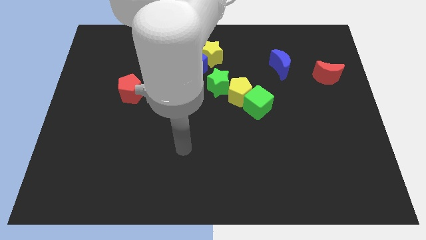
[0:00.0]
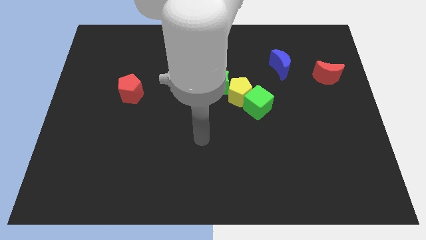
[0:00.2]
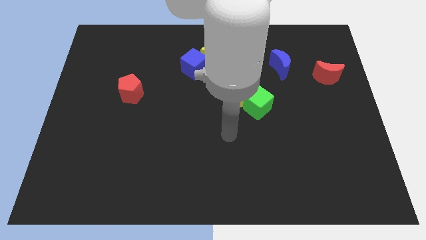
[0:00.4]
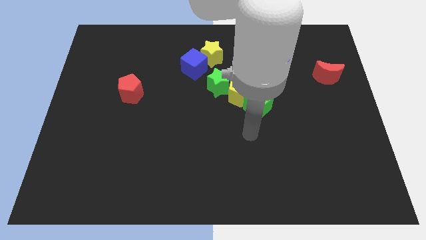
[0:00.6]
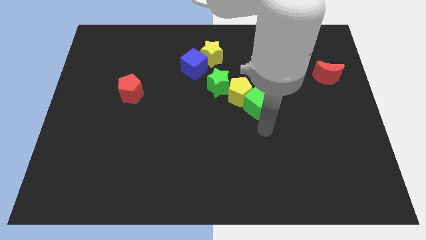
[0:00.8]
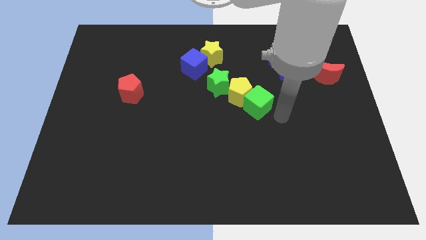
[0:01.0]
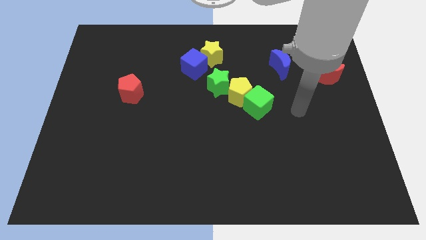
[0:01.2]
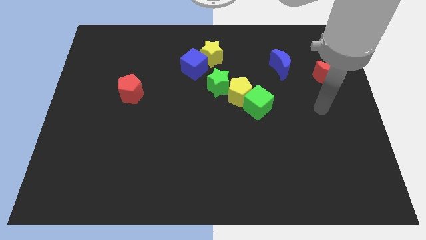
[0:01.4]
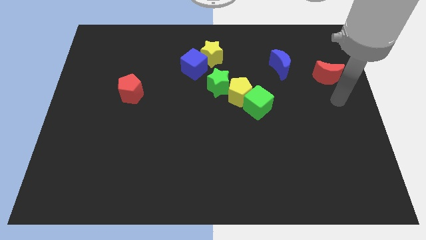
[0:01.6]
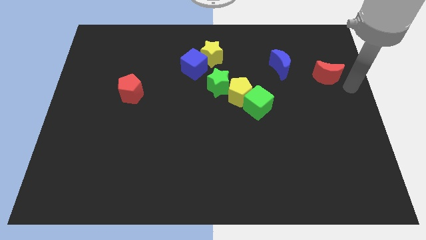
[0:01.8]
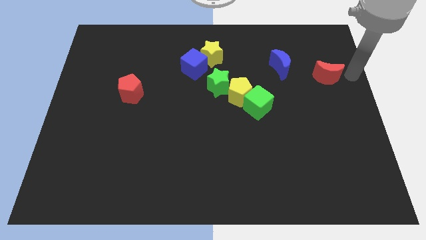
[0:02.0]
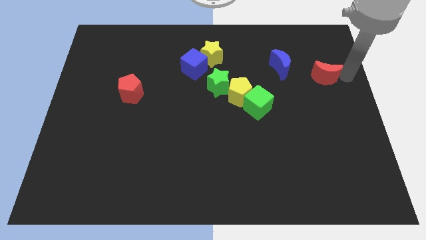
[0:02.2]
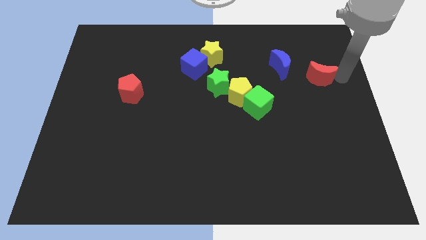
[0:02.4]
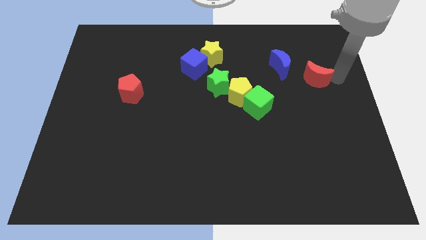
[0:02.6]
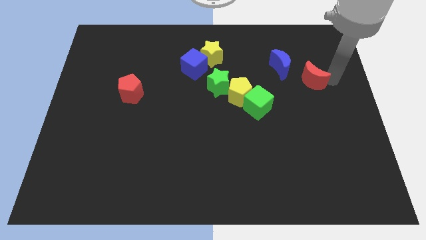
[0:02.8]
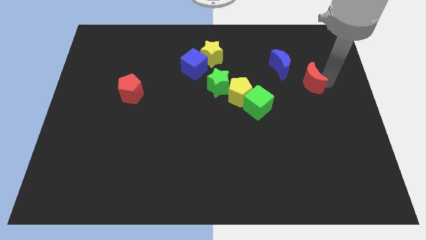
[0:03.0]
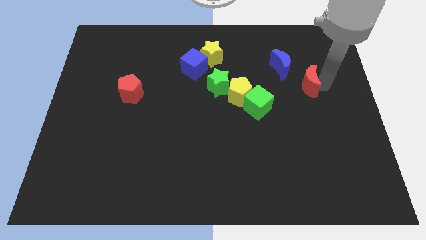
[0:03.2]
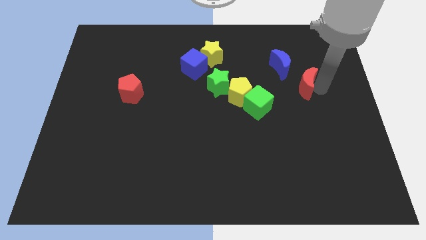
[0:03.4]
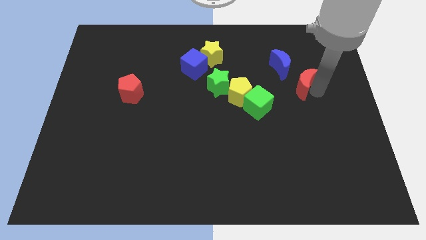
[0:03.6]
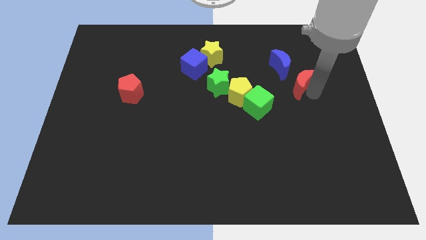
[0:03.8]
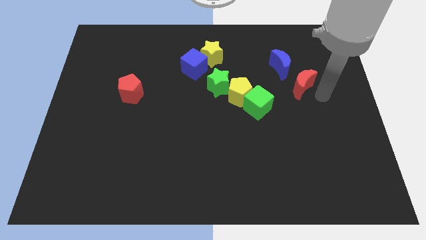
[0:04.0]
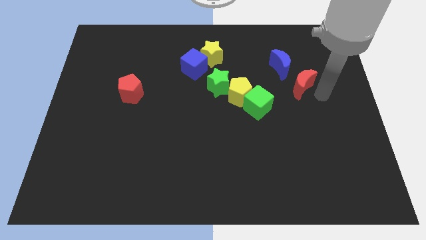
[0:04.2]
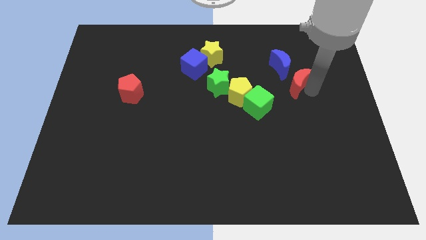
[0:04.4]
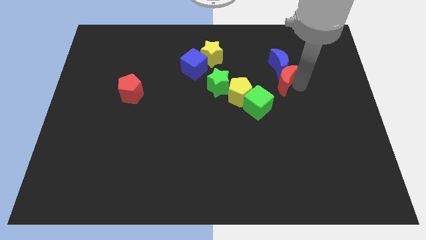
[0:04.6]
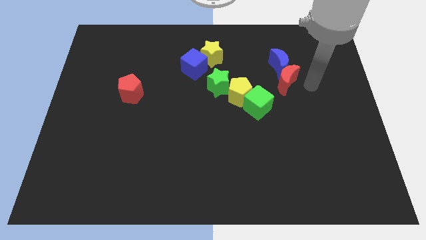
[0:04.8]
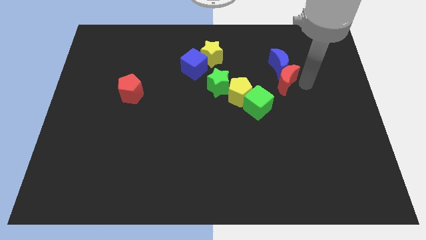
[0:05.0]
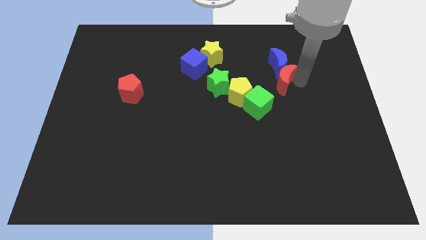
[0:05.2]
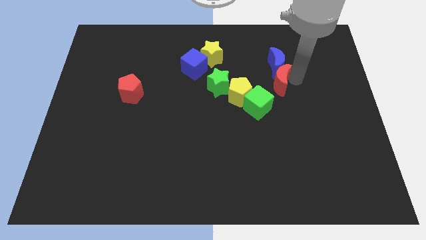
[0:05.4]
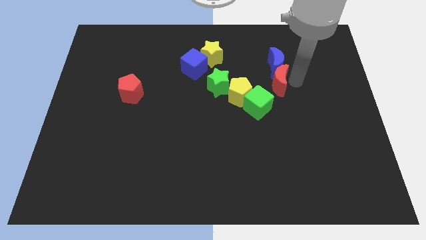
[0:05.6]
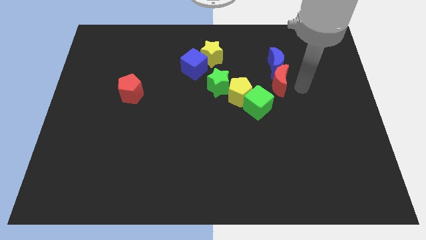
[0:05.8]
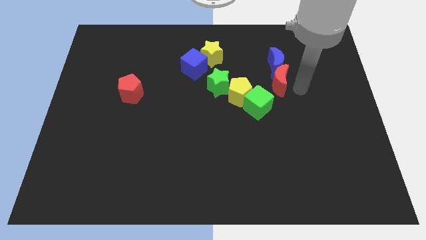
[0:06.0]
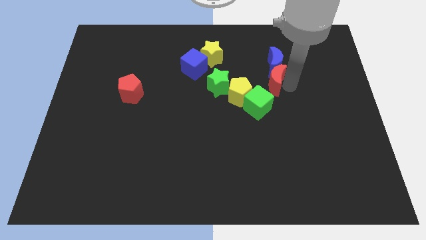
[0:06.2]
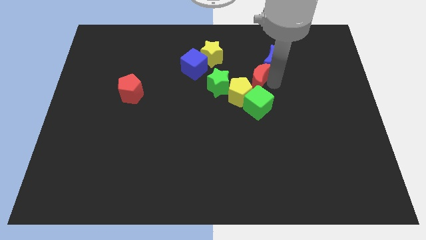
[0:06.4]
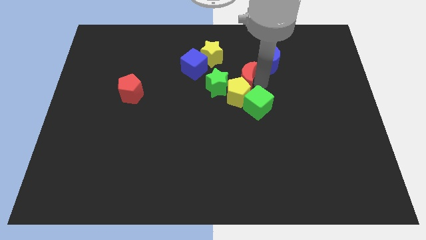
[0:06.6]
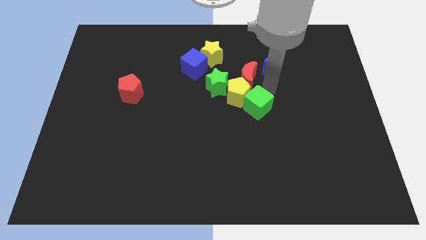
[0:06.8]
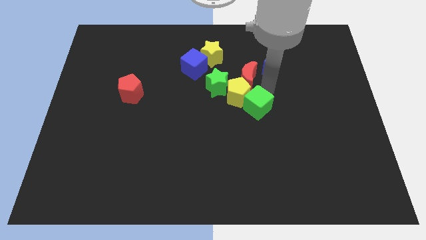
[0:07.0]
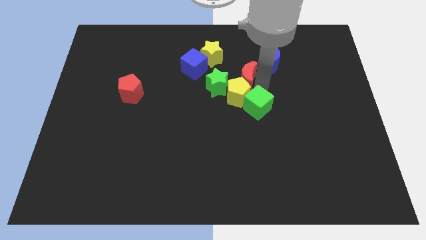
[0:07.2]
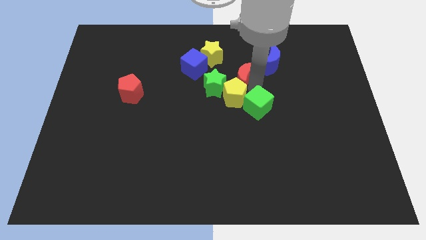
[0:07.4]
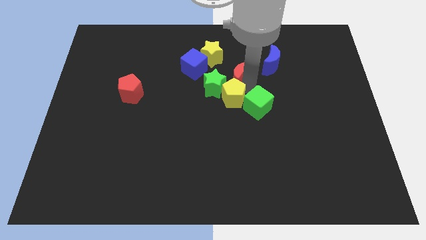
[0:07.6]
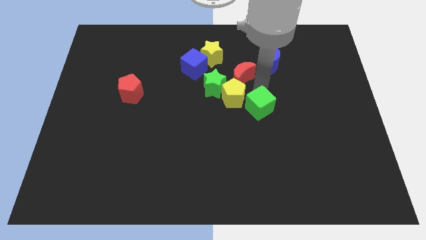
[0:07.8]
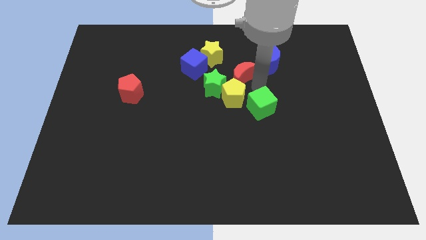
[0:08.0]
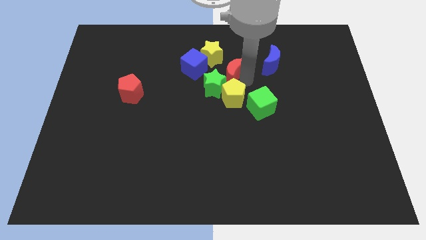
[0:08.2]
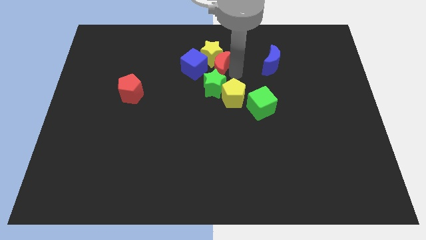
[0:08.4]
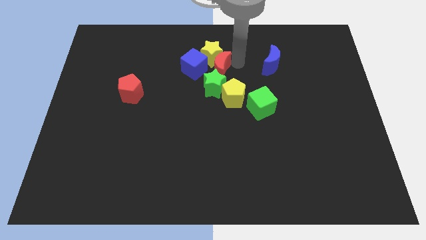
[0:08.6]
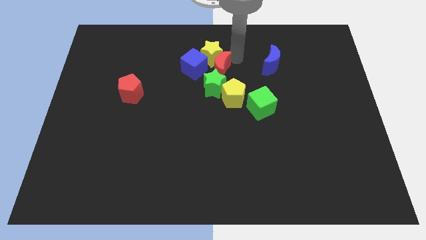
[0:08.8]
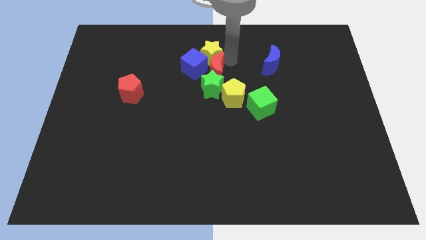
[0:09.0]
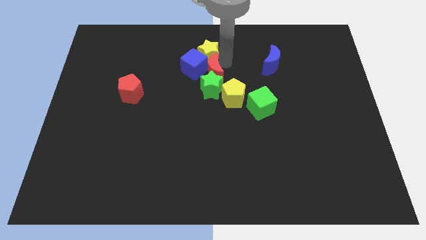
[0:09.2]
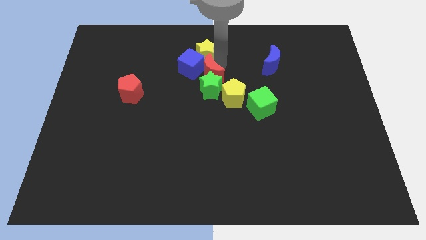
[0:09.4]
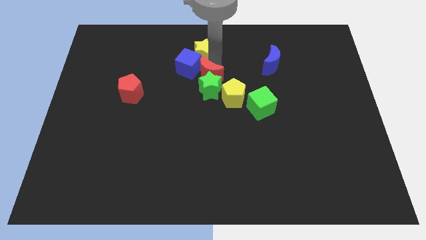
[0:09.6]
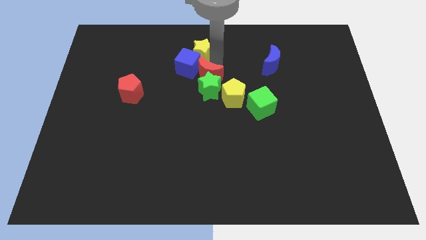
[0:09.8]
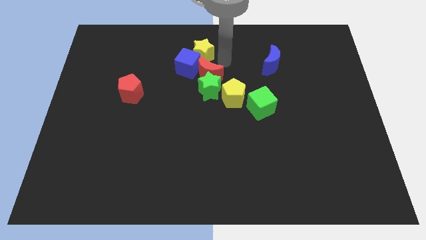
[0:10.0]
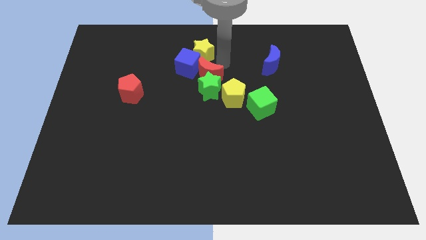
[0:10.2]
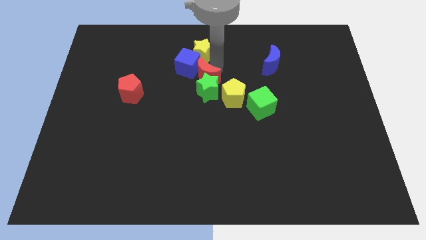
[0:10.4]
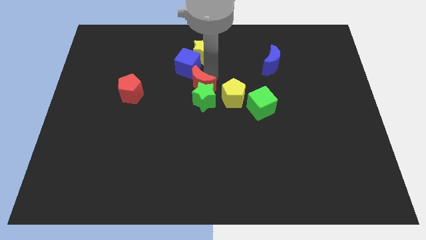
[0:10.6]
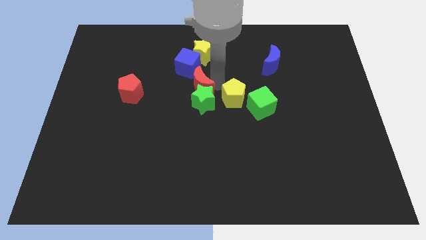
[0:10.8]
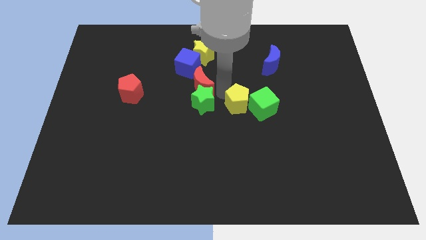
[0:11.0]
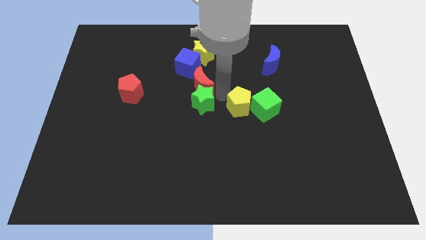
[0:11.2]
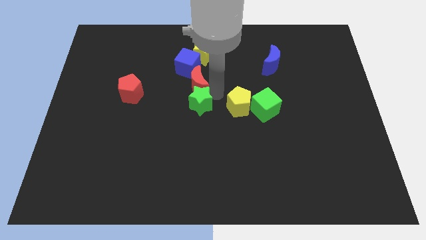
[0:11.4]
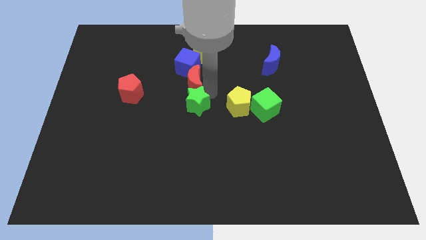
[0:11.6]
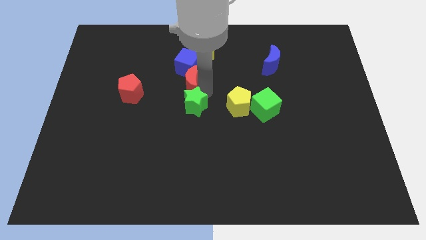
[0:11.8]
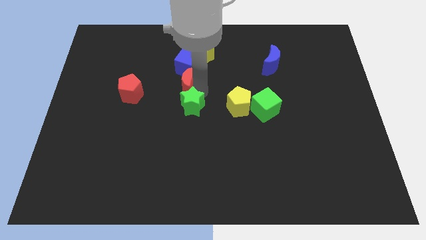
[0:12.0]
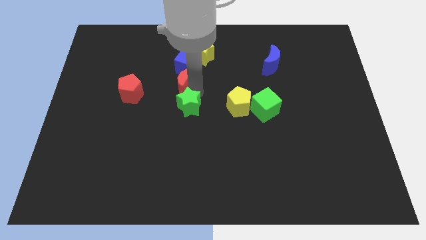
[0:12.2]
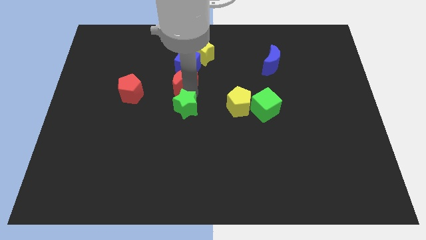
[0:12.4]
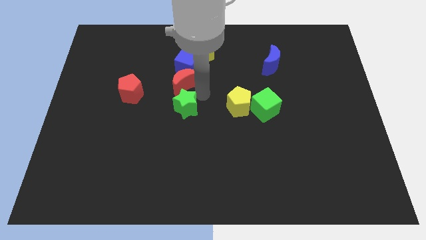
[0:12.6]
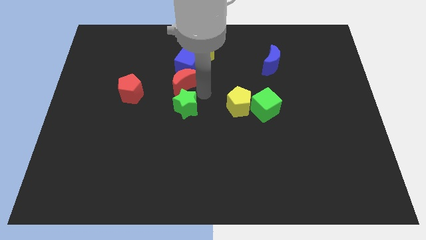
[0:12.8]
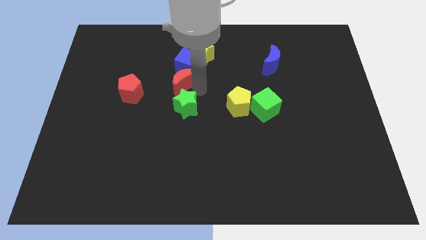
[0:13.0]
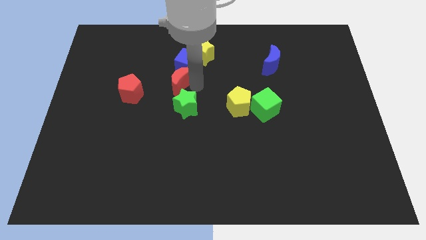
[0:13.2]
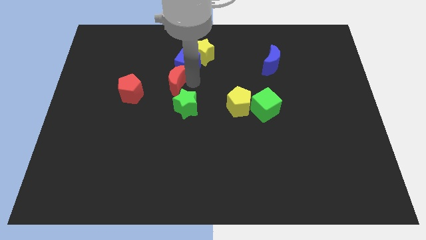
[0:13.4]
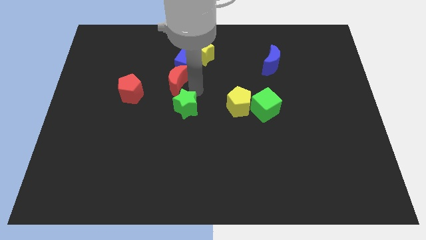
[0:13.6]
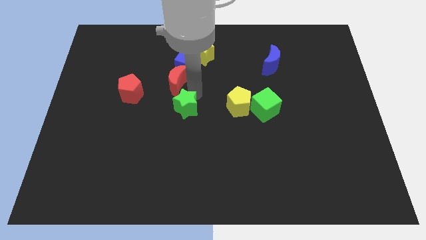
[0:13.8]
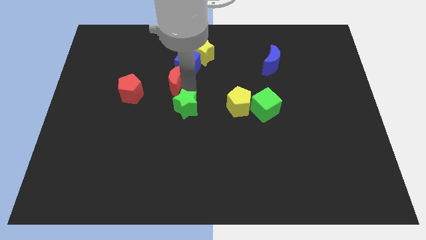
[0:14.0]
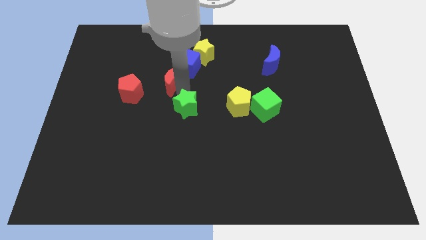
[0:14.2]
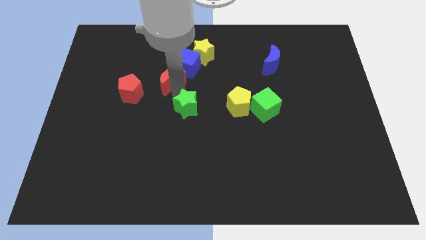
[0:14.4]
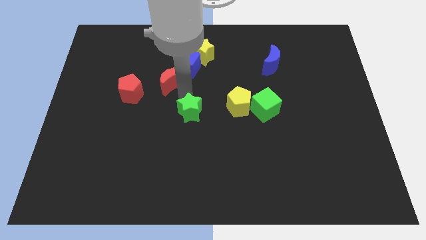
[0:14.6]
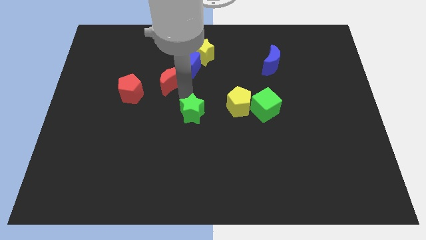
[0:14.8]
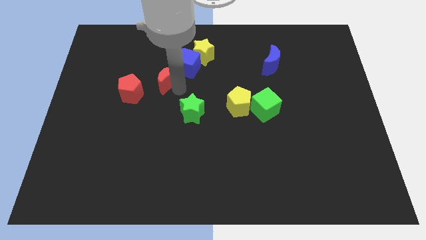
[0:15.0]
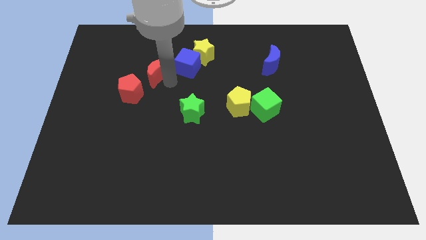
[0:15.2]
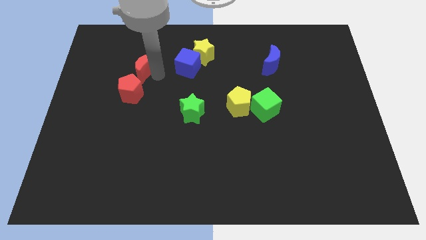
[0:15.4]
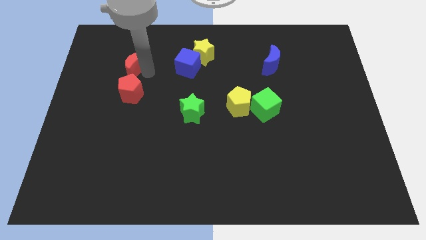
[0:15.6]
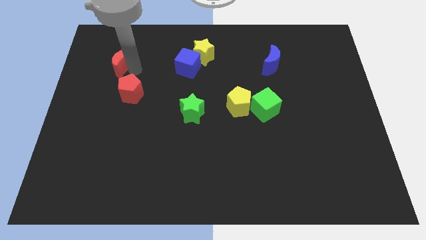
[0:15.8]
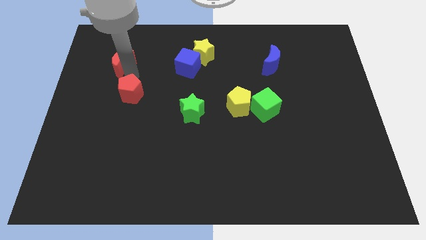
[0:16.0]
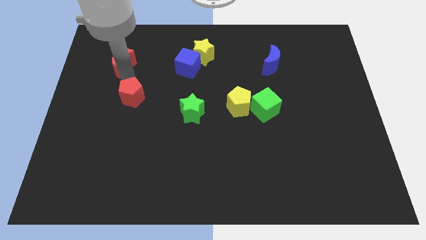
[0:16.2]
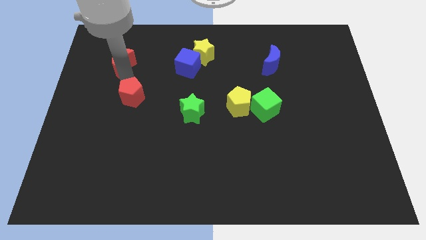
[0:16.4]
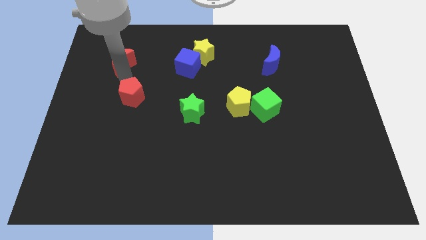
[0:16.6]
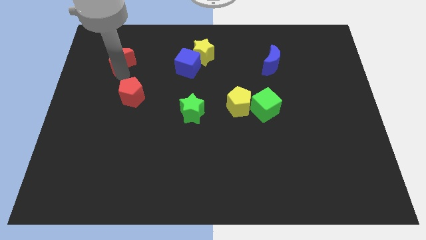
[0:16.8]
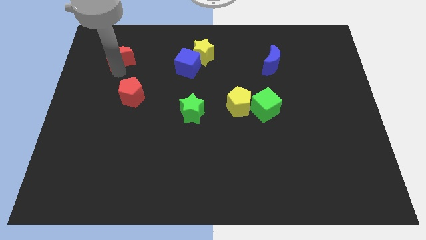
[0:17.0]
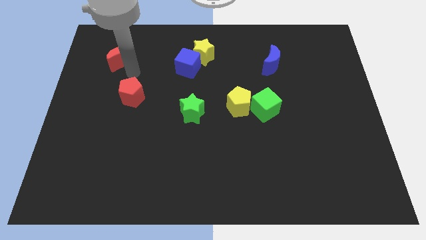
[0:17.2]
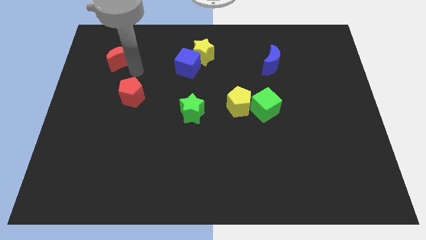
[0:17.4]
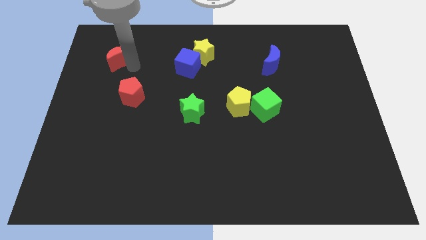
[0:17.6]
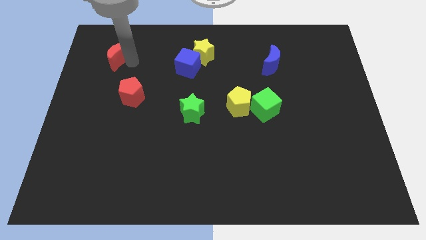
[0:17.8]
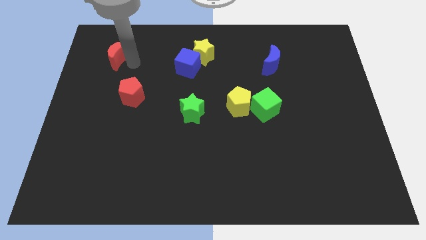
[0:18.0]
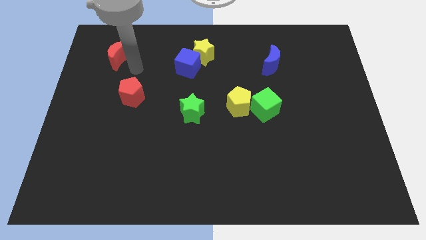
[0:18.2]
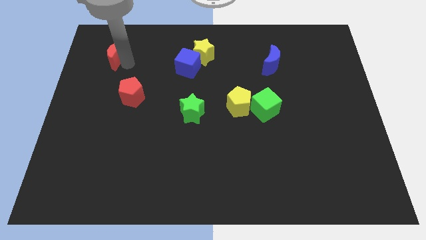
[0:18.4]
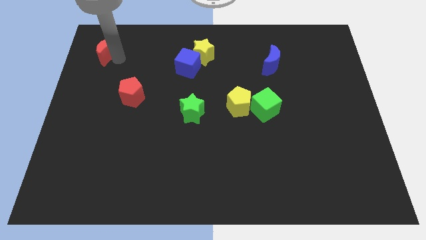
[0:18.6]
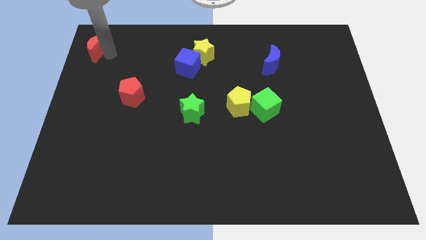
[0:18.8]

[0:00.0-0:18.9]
slide the red moon to the top left corner
